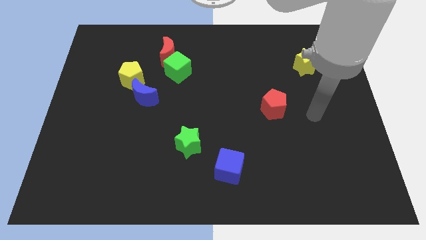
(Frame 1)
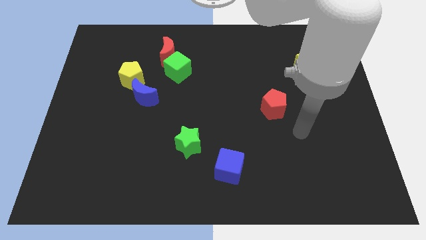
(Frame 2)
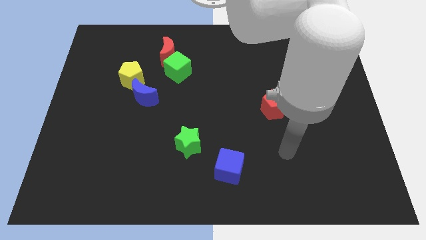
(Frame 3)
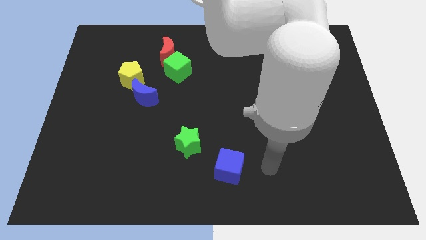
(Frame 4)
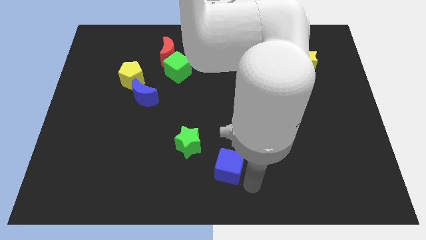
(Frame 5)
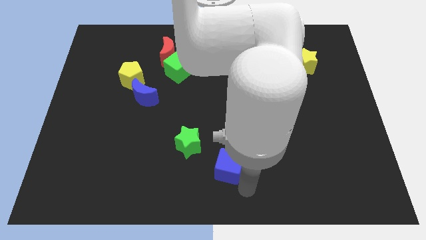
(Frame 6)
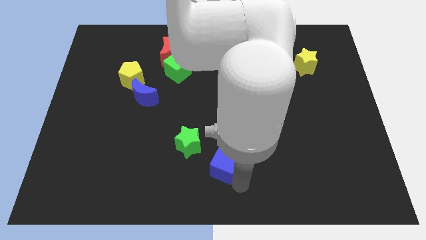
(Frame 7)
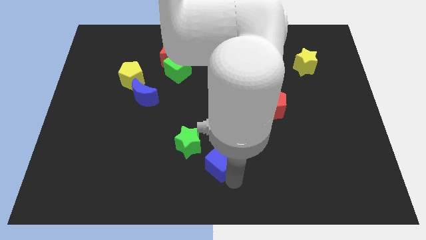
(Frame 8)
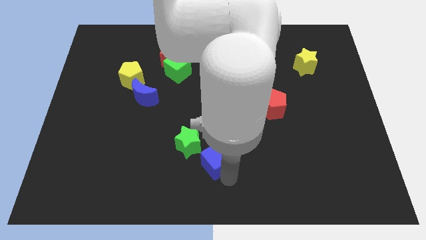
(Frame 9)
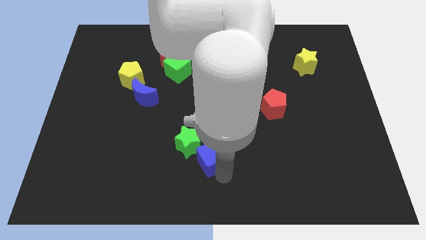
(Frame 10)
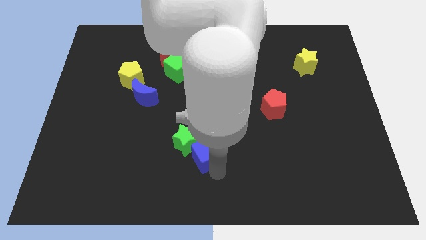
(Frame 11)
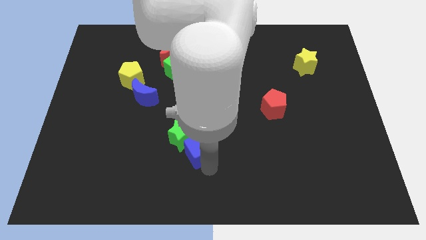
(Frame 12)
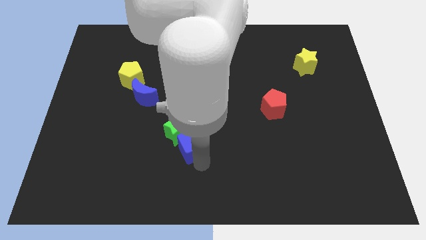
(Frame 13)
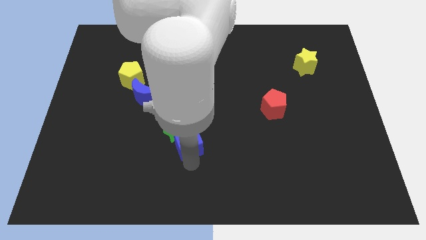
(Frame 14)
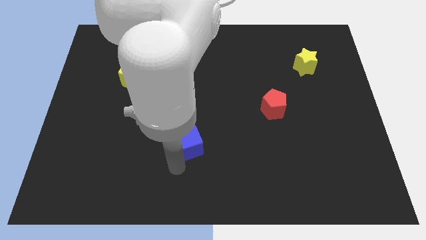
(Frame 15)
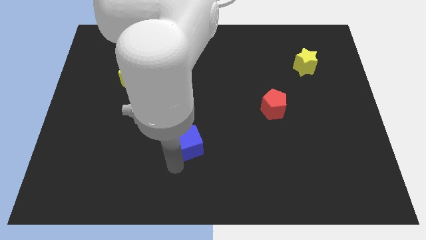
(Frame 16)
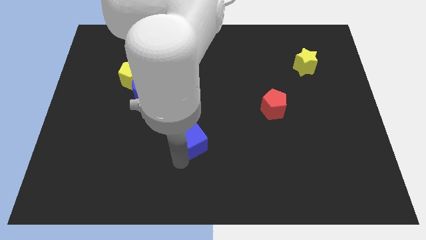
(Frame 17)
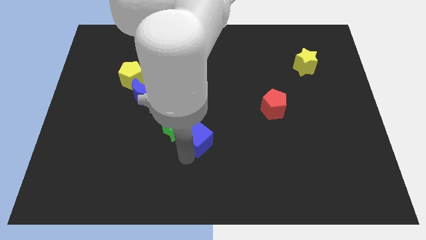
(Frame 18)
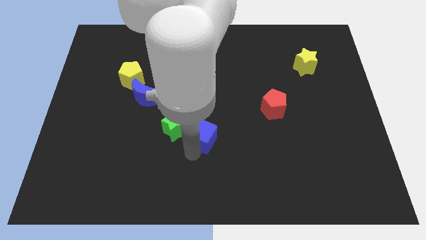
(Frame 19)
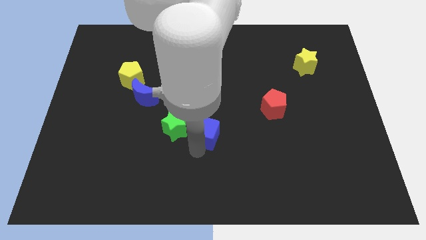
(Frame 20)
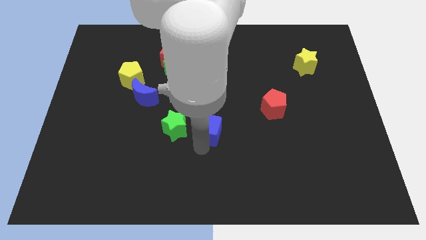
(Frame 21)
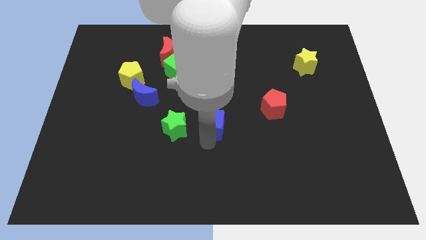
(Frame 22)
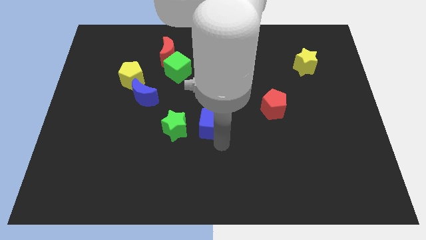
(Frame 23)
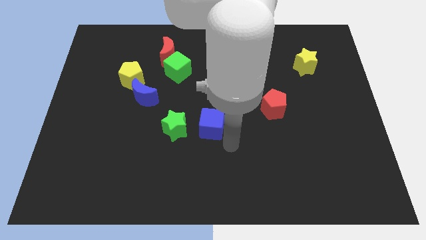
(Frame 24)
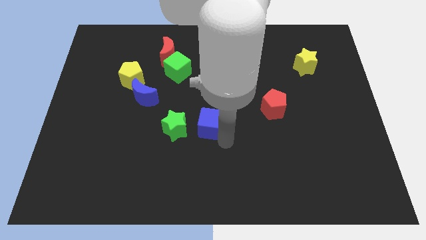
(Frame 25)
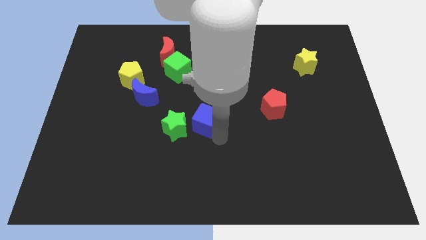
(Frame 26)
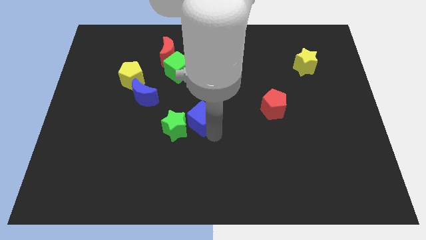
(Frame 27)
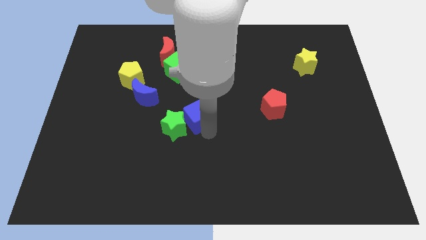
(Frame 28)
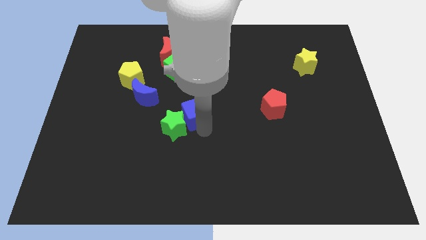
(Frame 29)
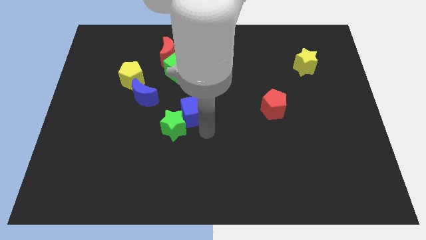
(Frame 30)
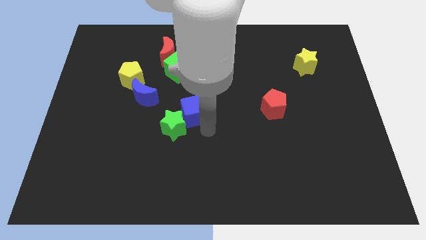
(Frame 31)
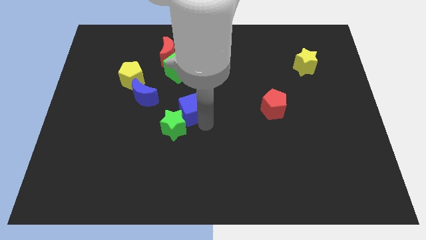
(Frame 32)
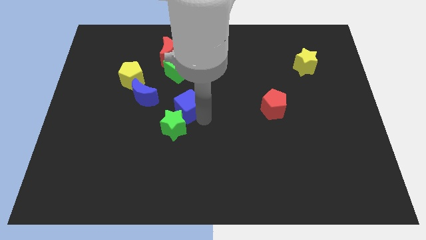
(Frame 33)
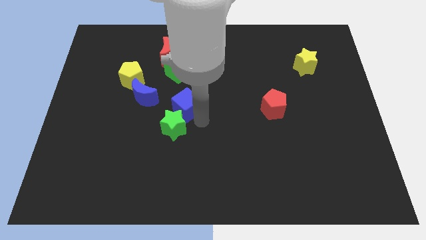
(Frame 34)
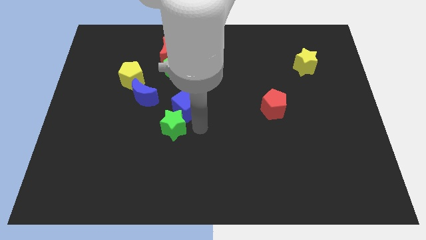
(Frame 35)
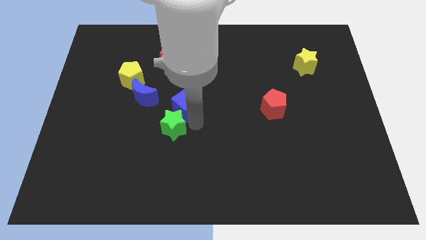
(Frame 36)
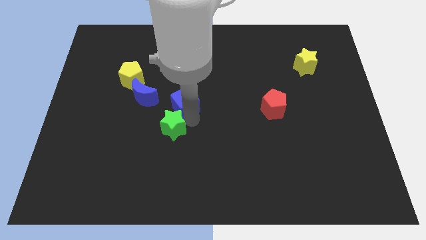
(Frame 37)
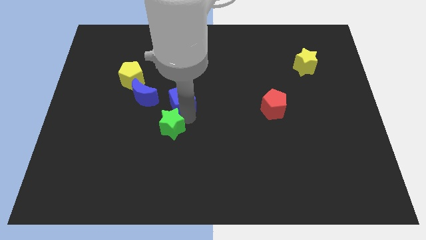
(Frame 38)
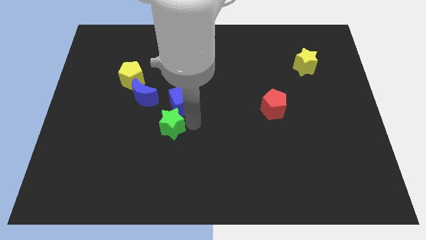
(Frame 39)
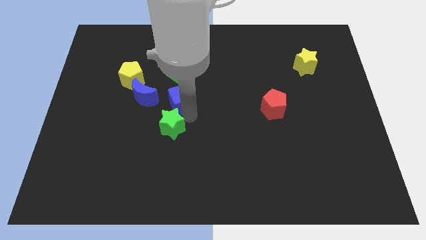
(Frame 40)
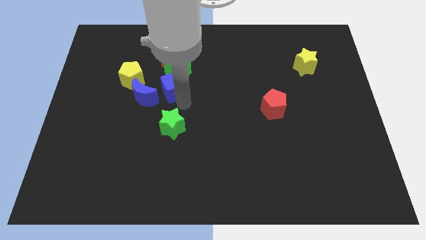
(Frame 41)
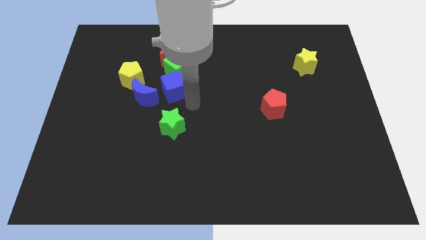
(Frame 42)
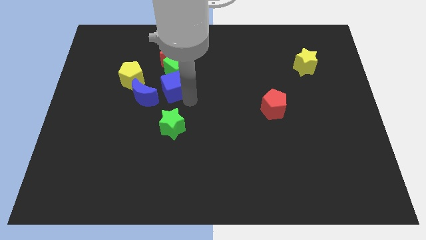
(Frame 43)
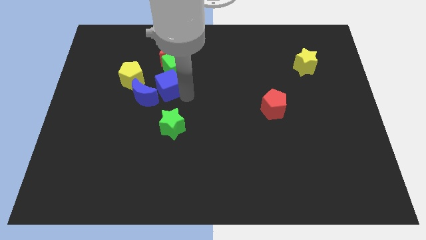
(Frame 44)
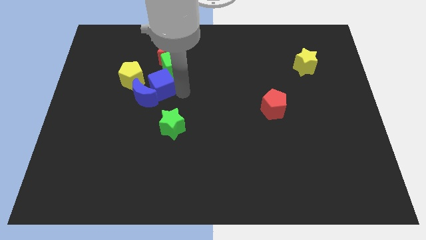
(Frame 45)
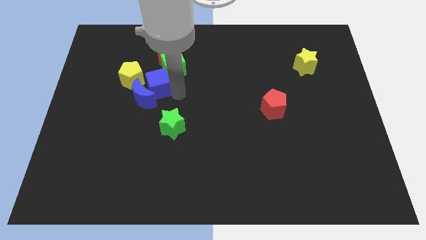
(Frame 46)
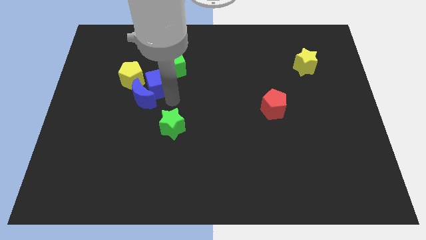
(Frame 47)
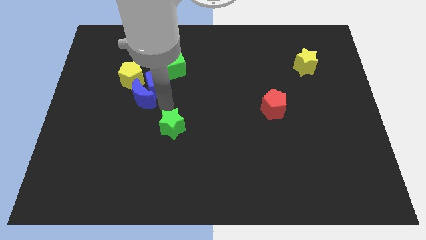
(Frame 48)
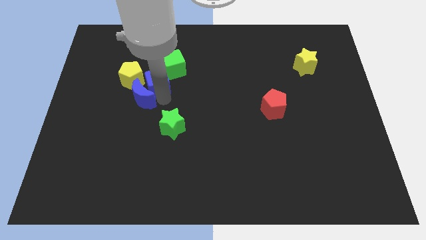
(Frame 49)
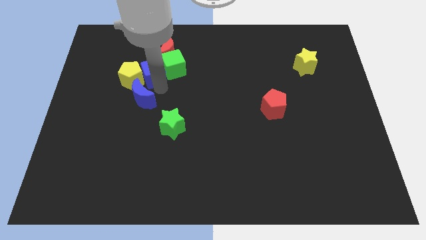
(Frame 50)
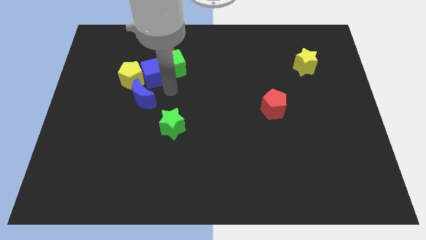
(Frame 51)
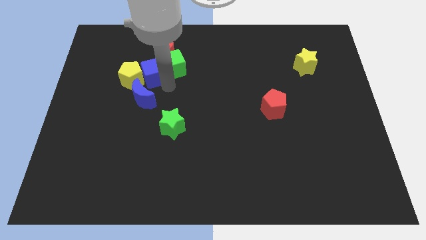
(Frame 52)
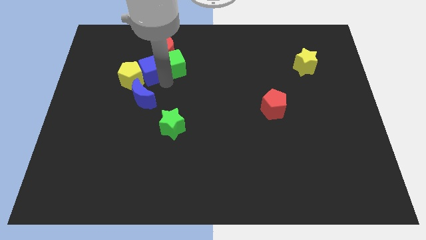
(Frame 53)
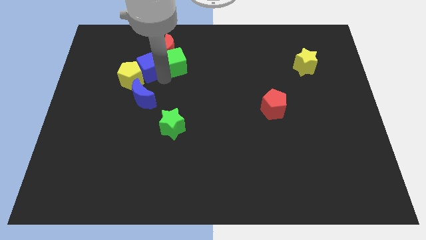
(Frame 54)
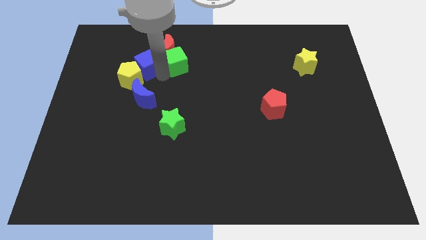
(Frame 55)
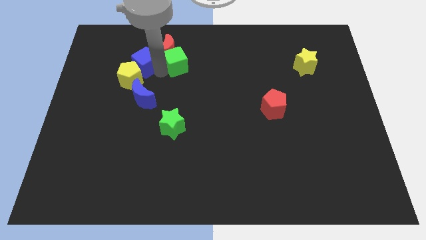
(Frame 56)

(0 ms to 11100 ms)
put the blue cube to the left side of the red moon

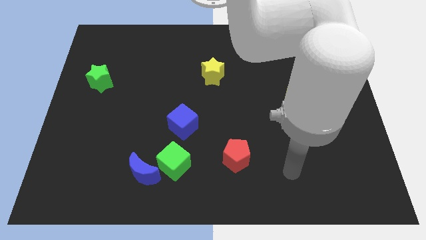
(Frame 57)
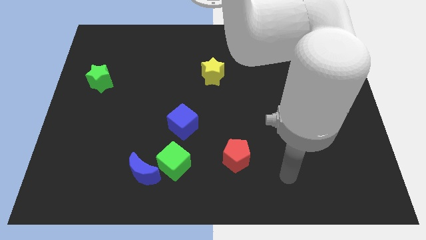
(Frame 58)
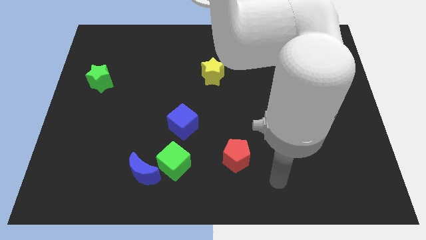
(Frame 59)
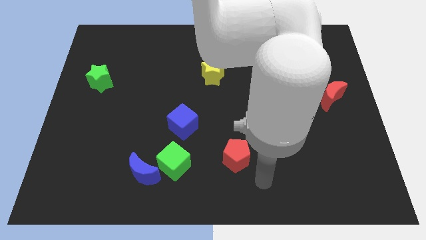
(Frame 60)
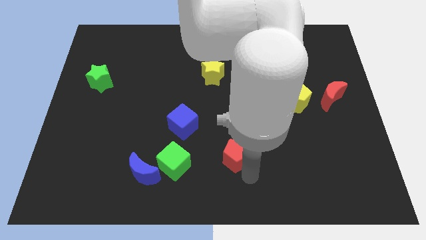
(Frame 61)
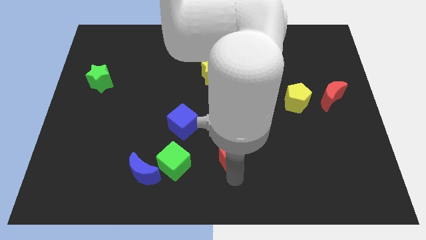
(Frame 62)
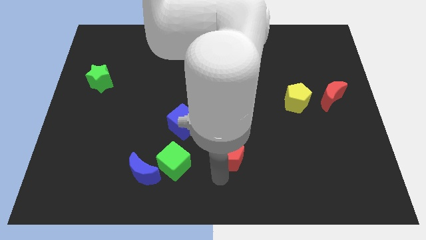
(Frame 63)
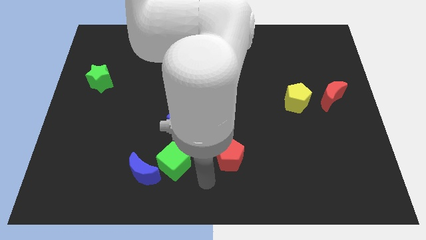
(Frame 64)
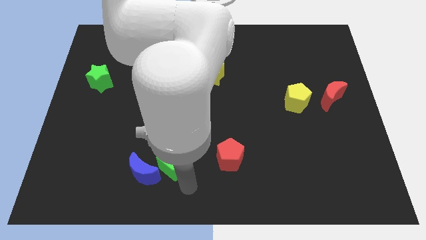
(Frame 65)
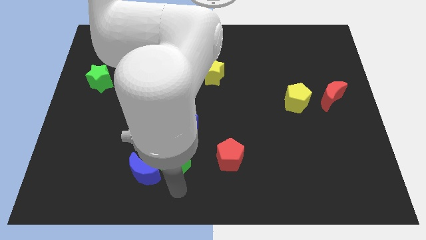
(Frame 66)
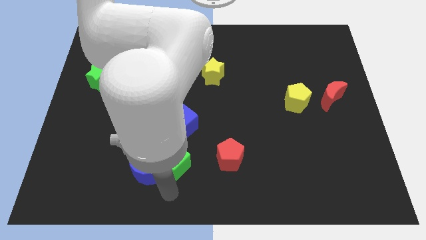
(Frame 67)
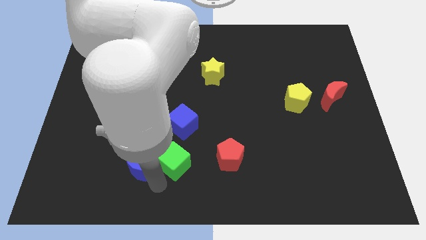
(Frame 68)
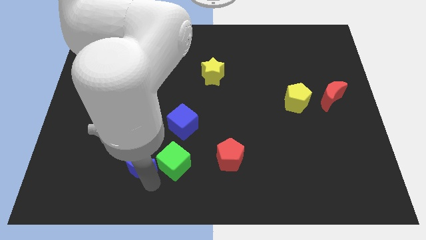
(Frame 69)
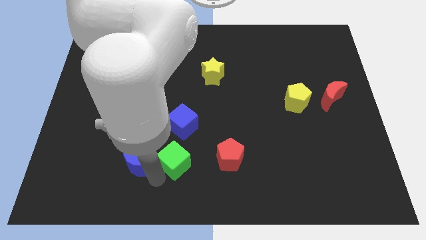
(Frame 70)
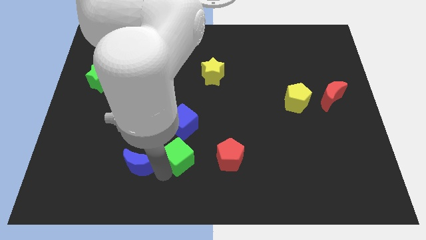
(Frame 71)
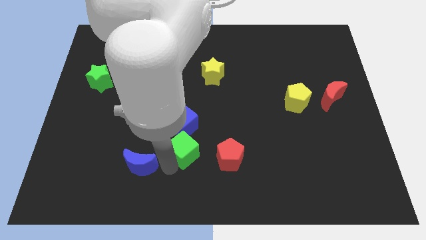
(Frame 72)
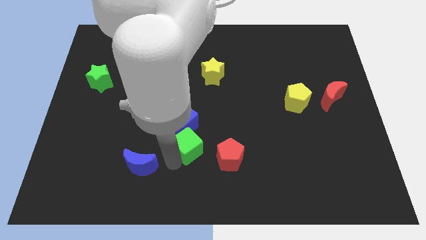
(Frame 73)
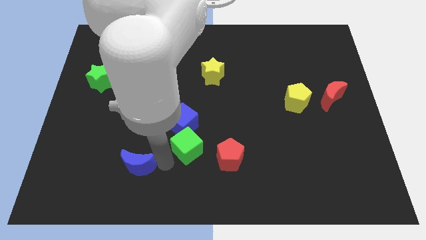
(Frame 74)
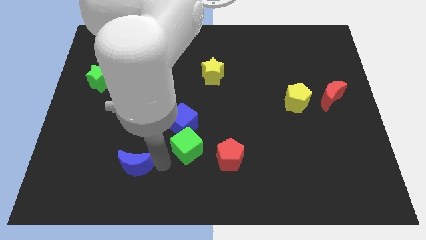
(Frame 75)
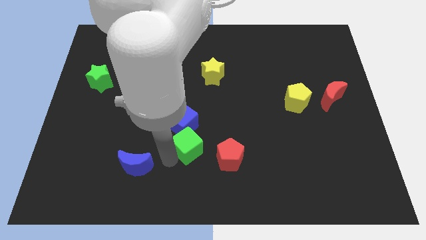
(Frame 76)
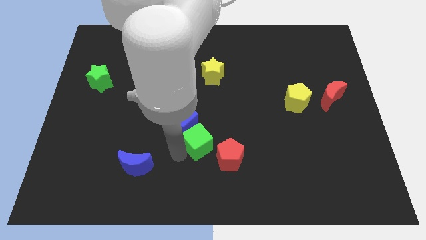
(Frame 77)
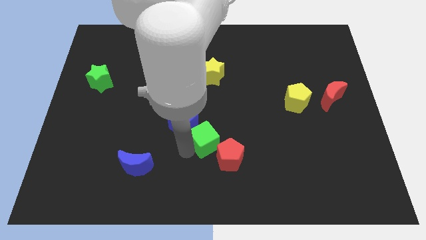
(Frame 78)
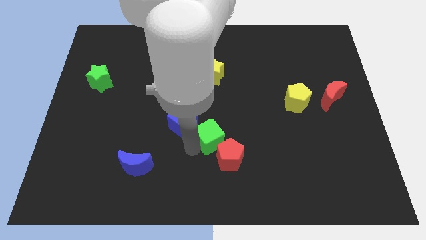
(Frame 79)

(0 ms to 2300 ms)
push the green cube to the top of the red pentagon

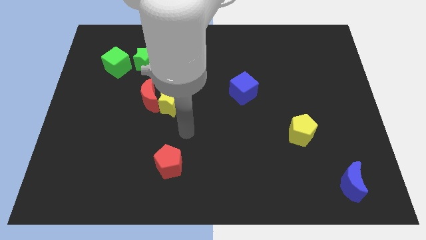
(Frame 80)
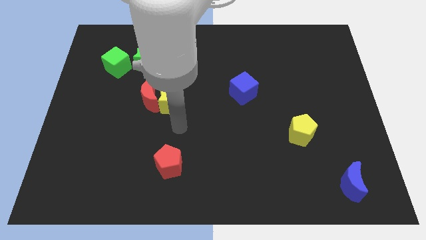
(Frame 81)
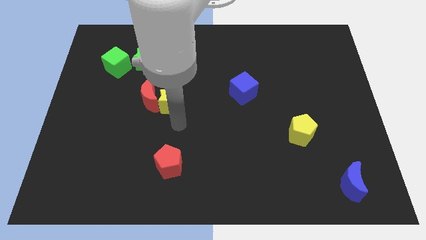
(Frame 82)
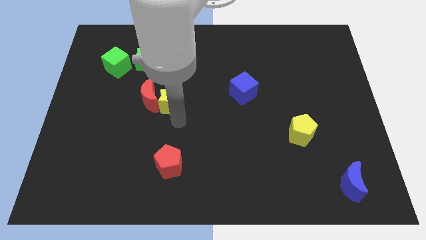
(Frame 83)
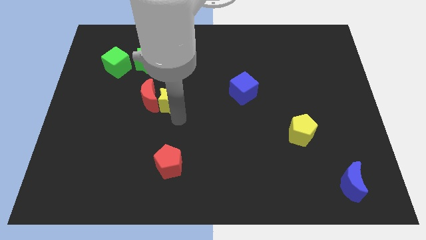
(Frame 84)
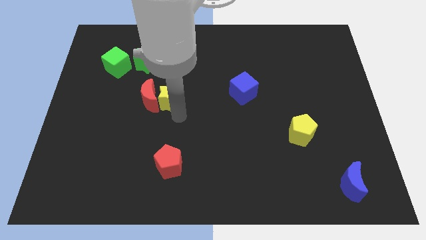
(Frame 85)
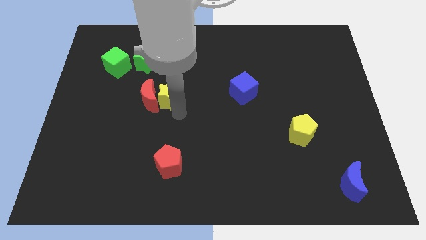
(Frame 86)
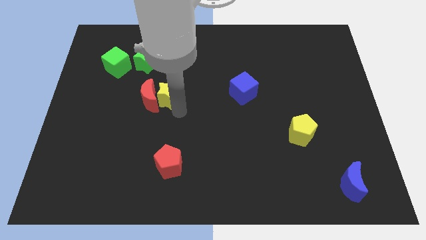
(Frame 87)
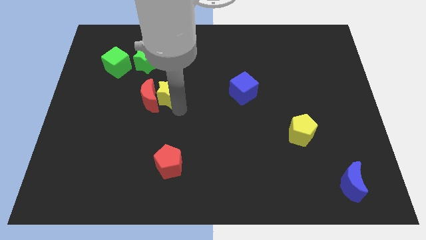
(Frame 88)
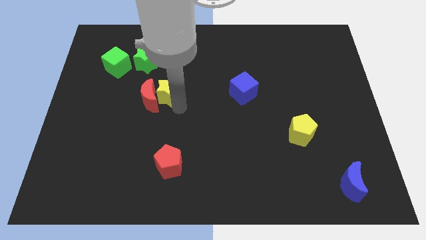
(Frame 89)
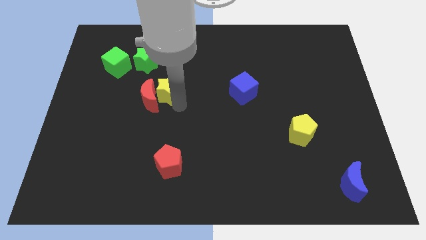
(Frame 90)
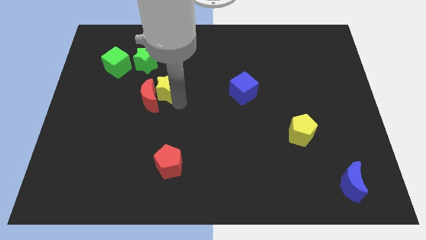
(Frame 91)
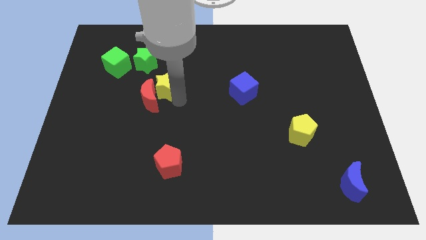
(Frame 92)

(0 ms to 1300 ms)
slide the yellow star to the top side of the red moon
